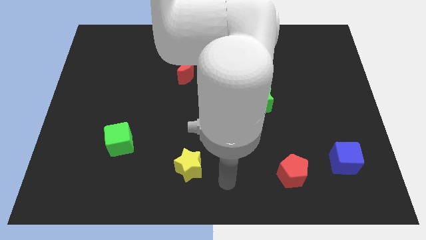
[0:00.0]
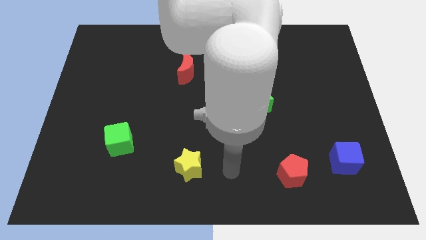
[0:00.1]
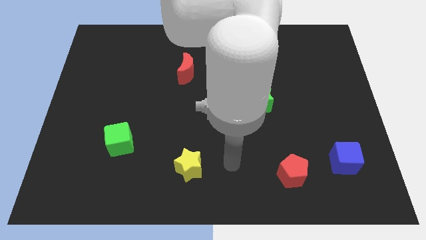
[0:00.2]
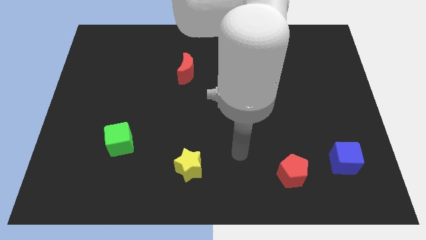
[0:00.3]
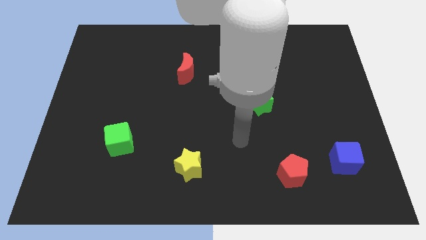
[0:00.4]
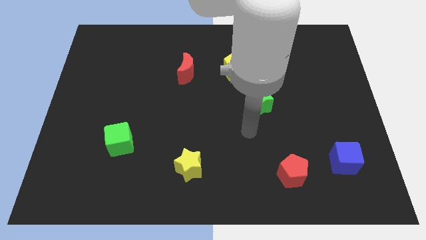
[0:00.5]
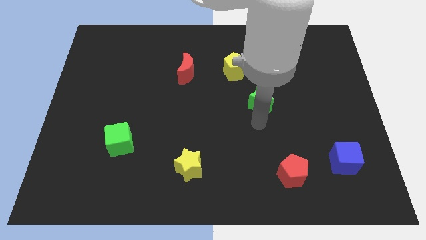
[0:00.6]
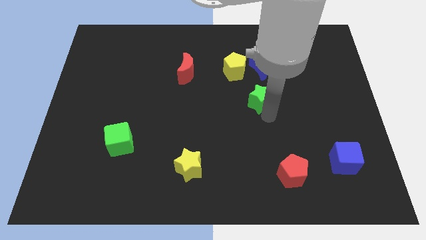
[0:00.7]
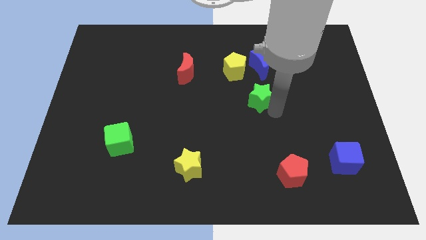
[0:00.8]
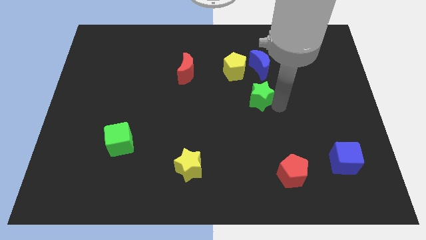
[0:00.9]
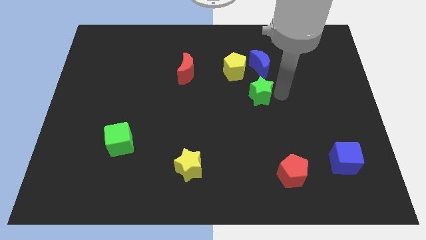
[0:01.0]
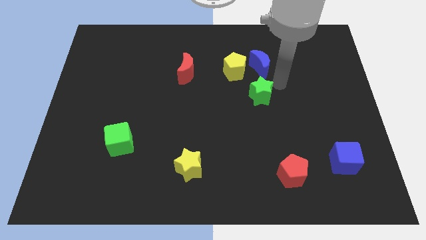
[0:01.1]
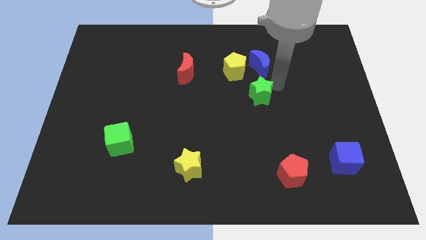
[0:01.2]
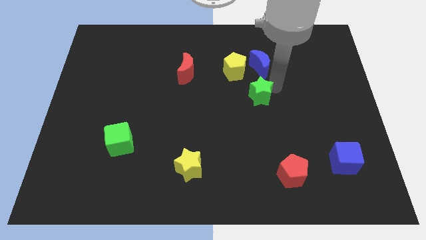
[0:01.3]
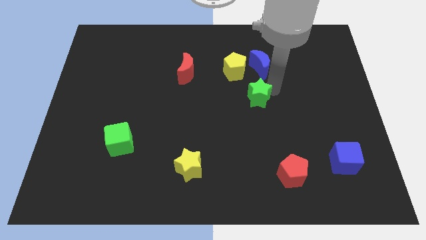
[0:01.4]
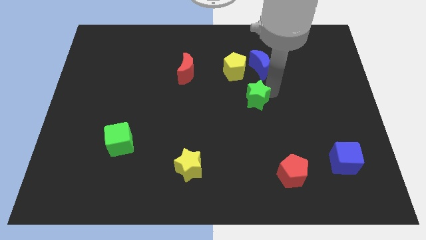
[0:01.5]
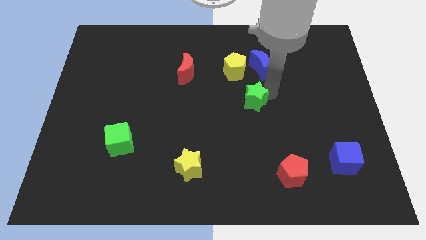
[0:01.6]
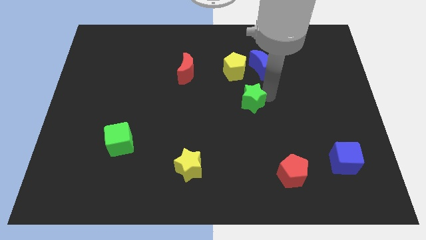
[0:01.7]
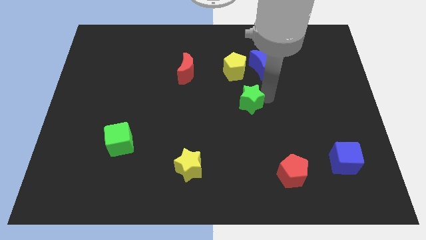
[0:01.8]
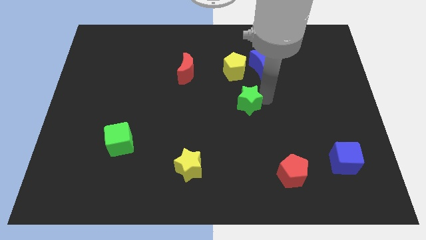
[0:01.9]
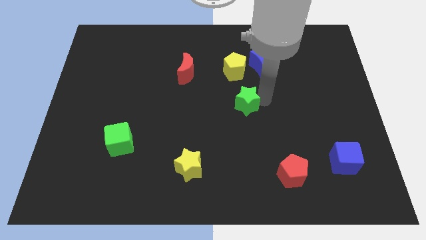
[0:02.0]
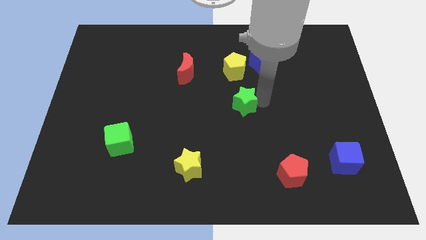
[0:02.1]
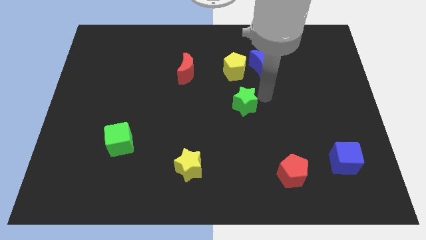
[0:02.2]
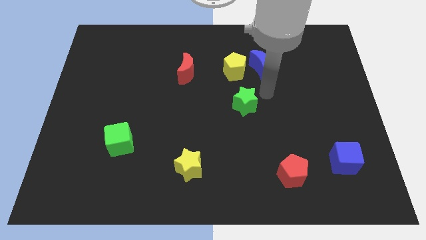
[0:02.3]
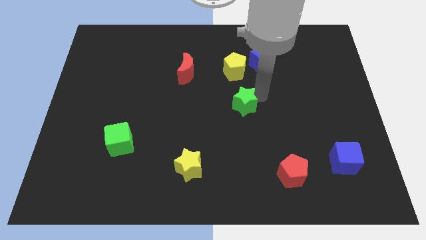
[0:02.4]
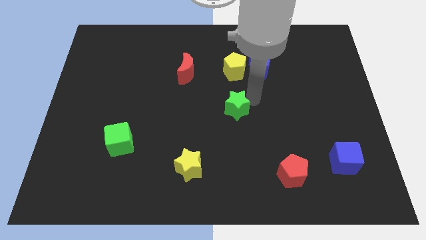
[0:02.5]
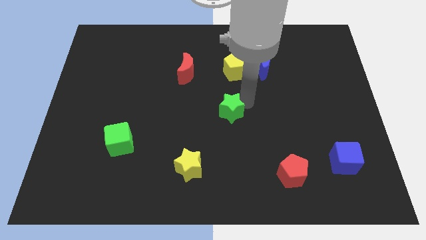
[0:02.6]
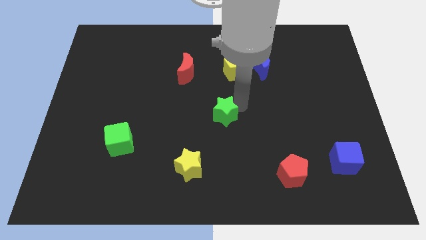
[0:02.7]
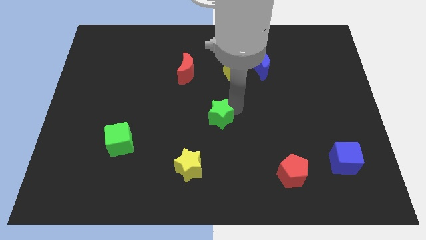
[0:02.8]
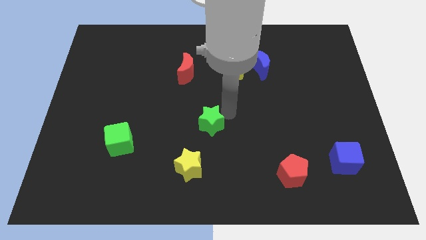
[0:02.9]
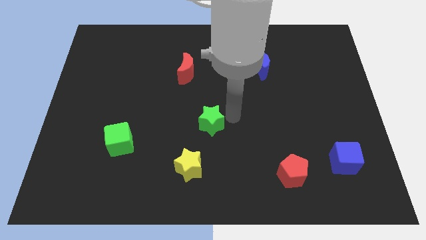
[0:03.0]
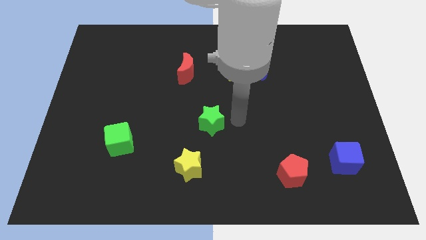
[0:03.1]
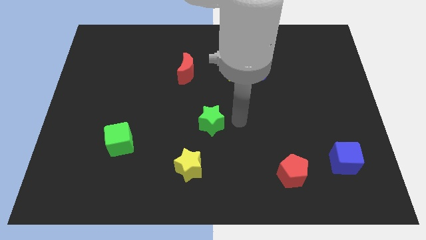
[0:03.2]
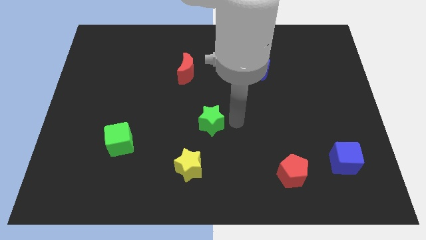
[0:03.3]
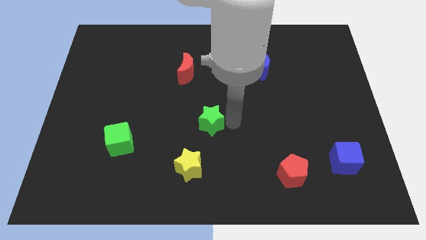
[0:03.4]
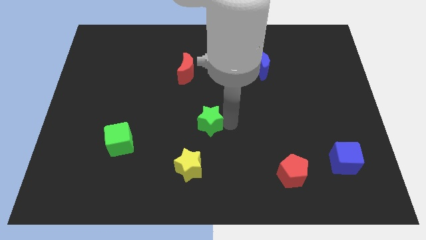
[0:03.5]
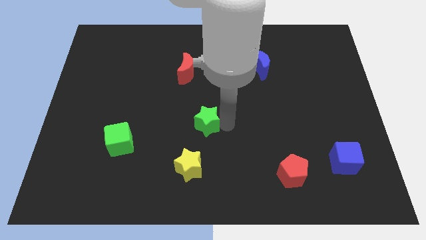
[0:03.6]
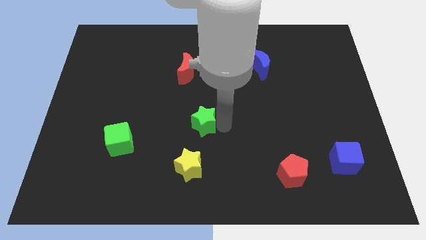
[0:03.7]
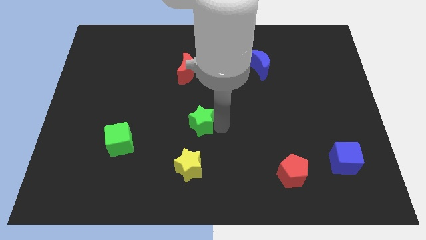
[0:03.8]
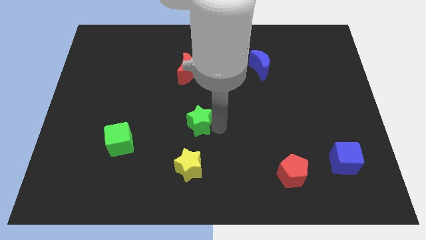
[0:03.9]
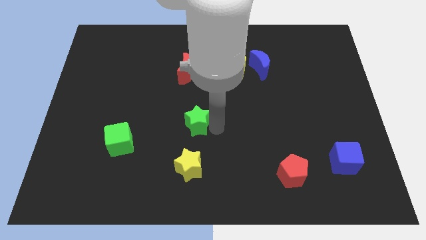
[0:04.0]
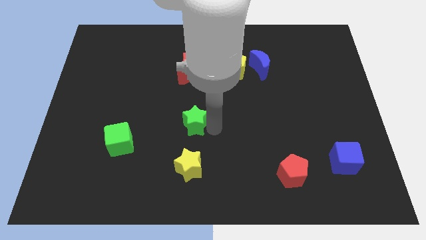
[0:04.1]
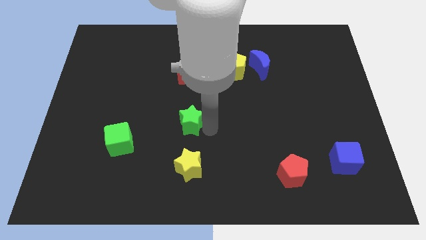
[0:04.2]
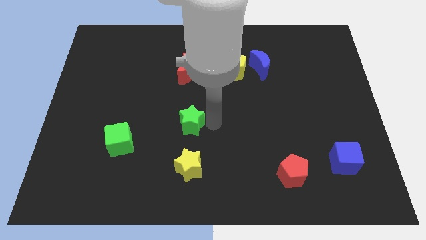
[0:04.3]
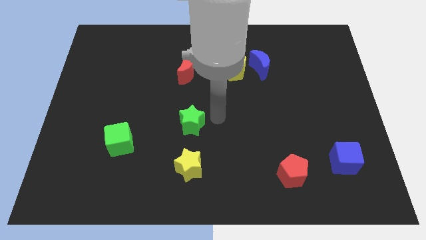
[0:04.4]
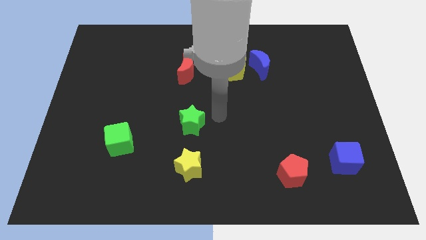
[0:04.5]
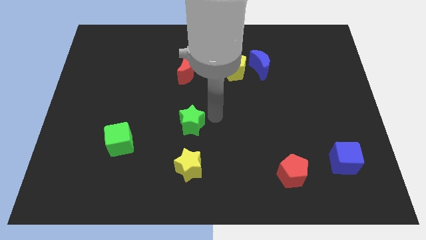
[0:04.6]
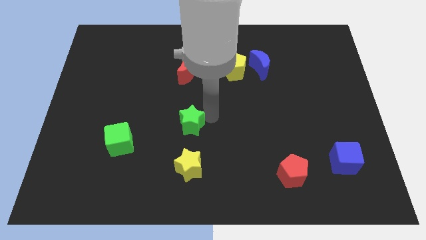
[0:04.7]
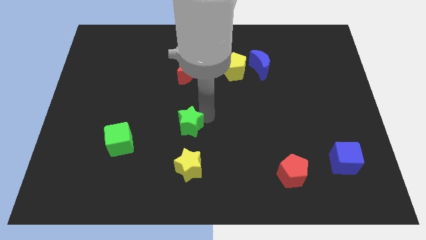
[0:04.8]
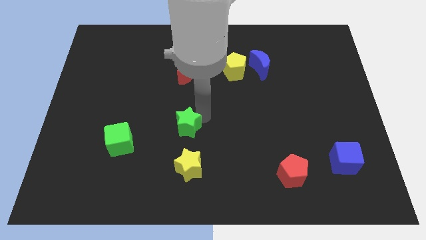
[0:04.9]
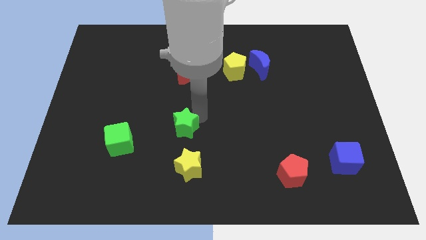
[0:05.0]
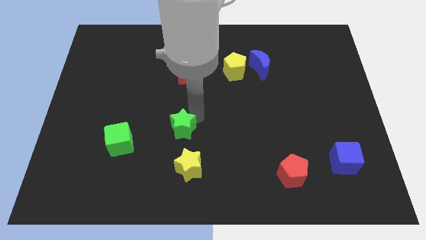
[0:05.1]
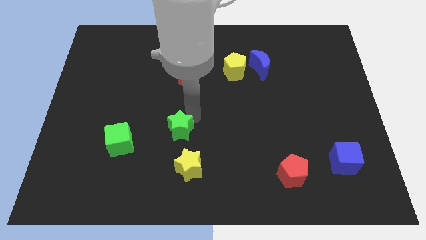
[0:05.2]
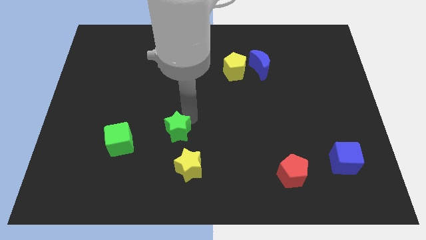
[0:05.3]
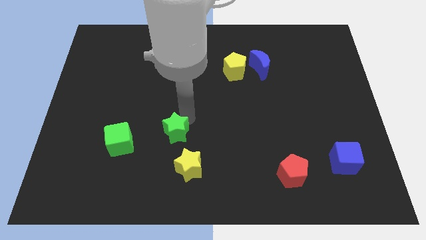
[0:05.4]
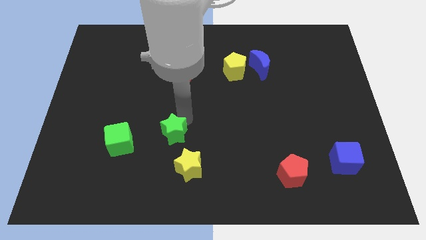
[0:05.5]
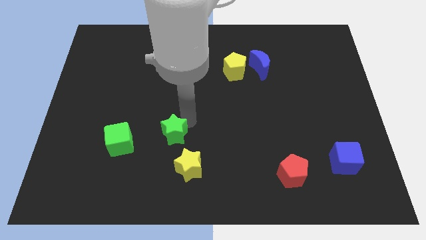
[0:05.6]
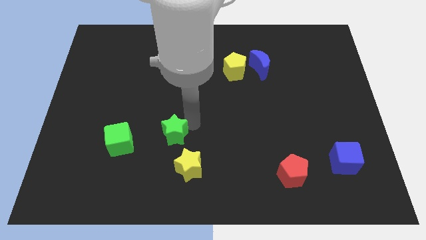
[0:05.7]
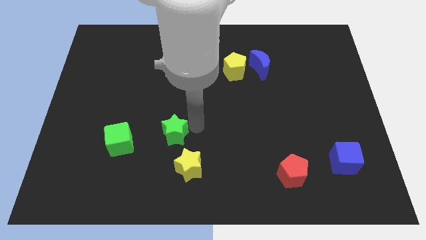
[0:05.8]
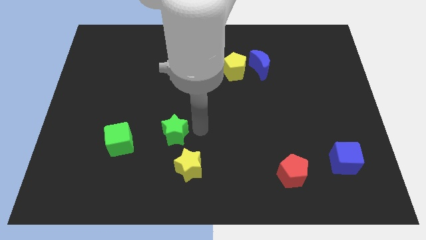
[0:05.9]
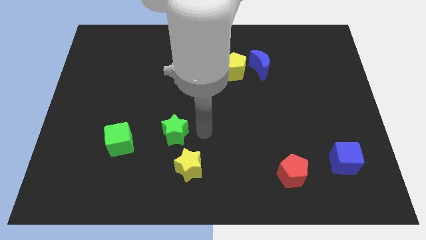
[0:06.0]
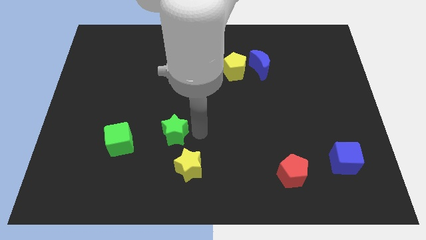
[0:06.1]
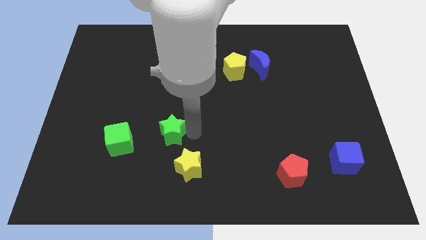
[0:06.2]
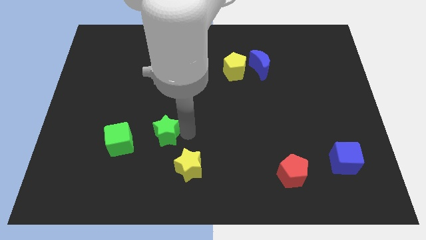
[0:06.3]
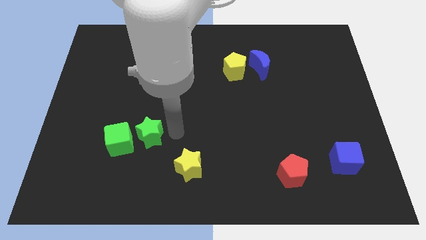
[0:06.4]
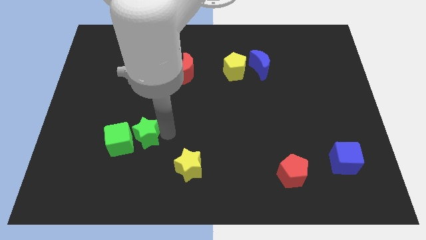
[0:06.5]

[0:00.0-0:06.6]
put the green star next to the green cube

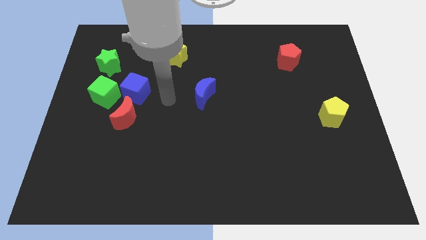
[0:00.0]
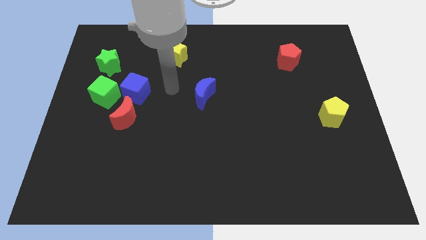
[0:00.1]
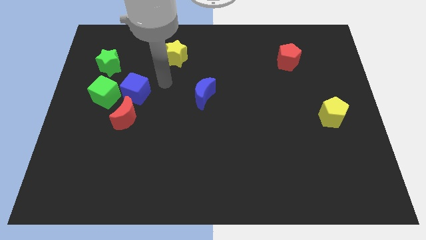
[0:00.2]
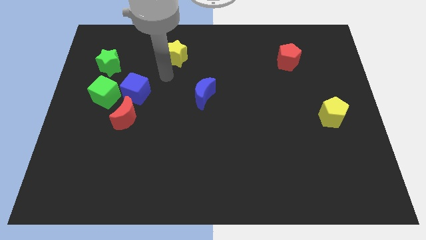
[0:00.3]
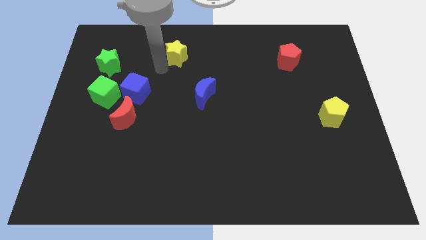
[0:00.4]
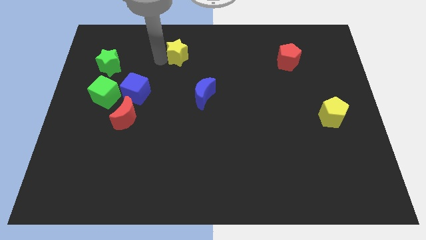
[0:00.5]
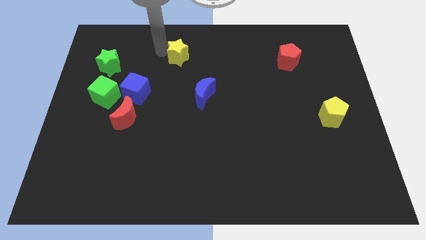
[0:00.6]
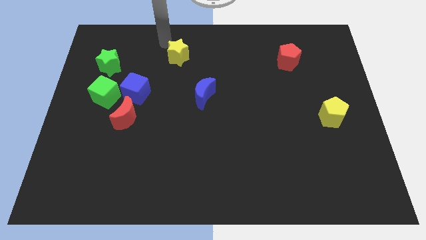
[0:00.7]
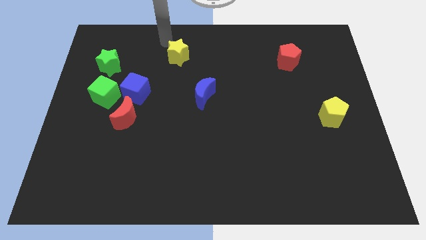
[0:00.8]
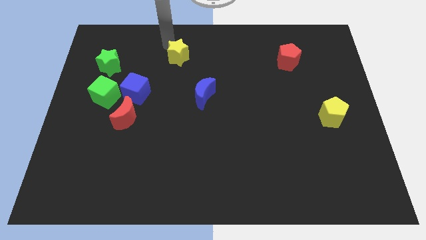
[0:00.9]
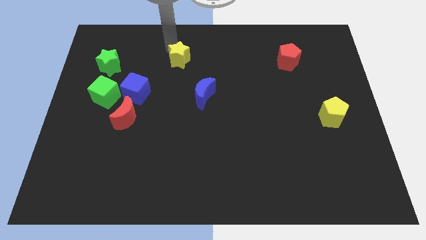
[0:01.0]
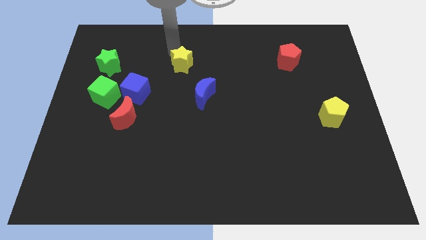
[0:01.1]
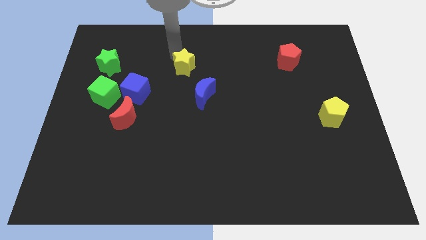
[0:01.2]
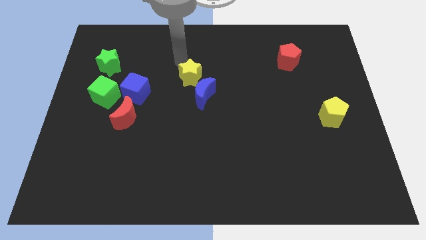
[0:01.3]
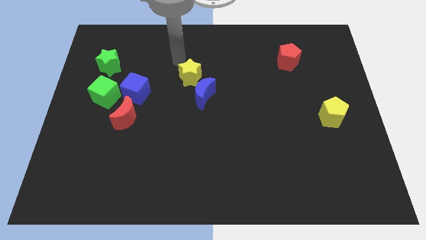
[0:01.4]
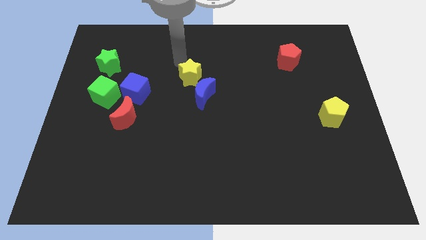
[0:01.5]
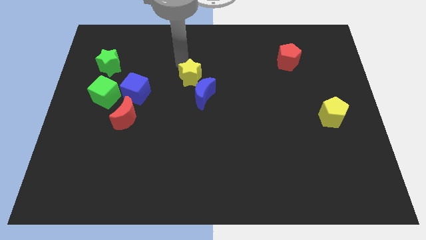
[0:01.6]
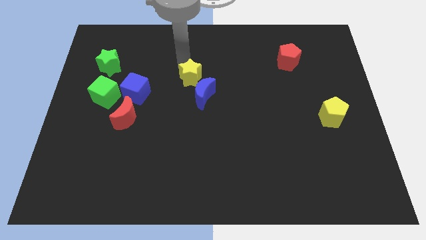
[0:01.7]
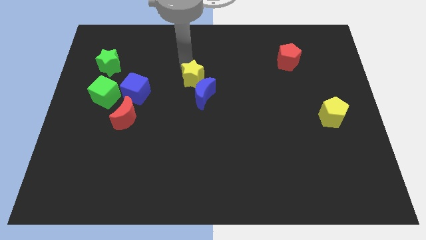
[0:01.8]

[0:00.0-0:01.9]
push the yellow star towards the blue moon
